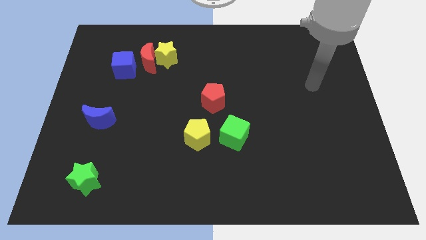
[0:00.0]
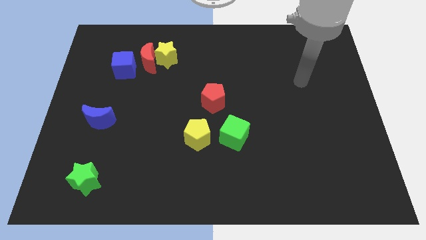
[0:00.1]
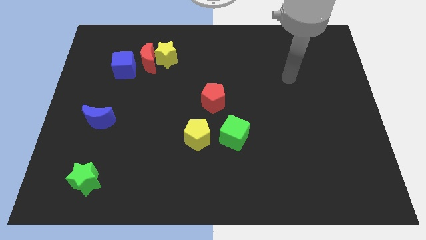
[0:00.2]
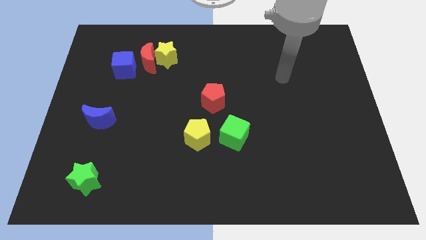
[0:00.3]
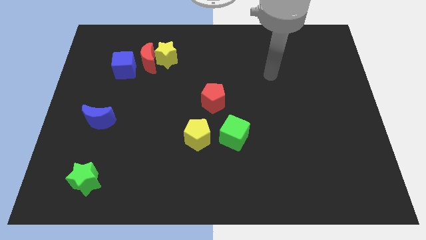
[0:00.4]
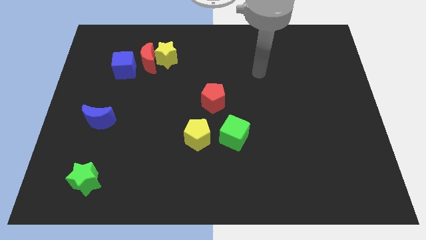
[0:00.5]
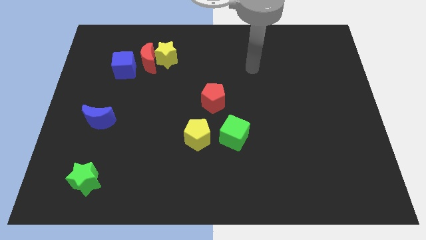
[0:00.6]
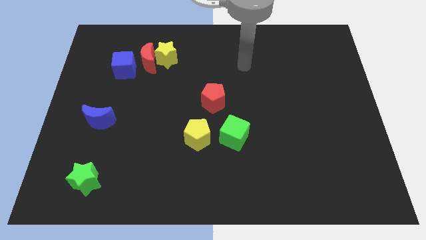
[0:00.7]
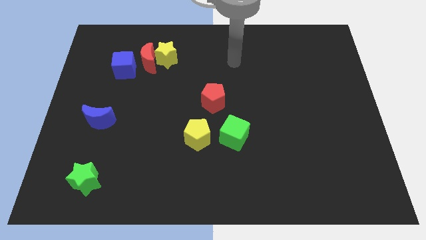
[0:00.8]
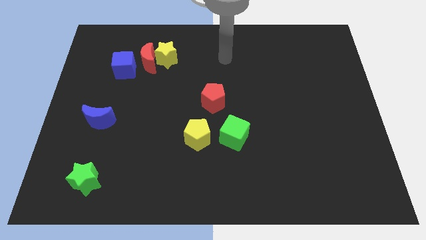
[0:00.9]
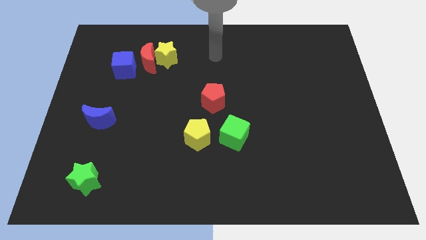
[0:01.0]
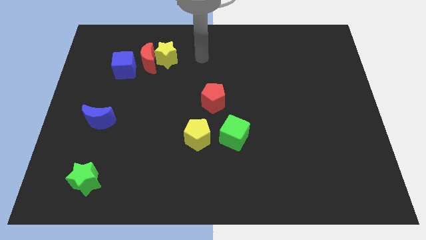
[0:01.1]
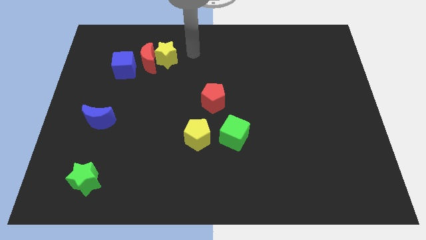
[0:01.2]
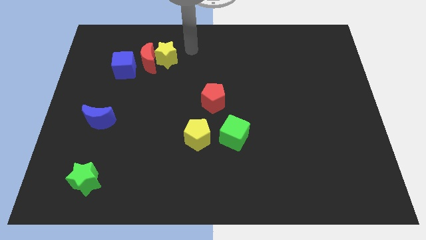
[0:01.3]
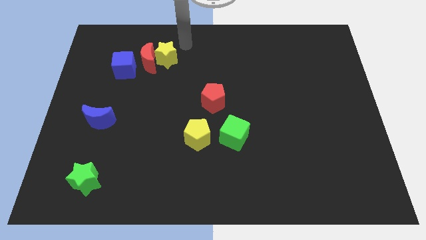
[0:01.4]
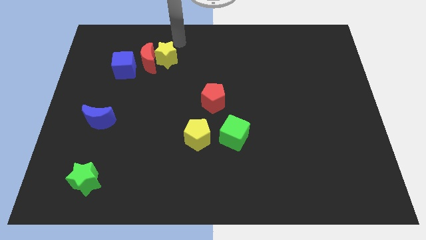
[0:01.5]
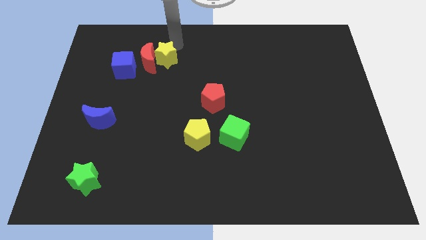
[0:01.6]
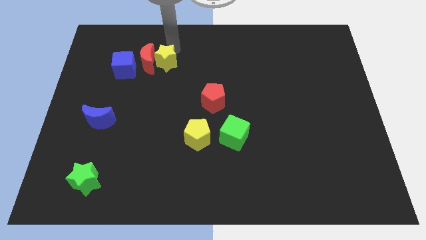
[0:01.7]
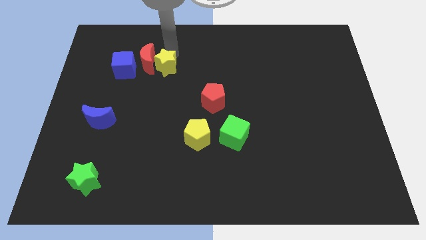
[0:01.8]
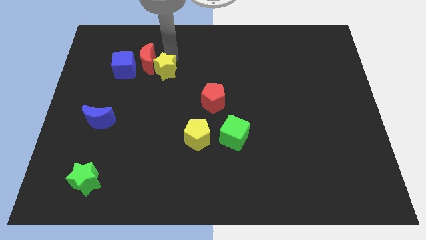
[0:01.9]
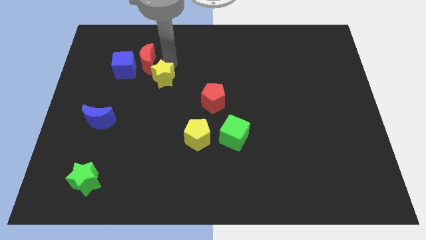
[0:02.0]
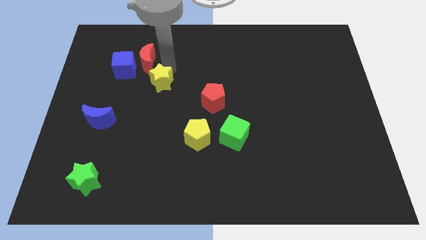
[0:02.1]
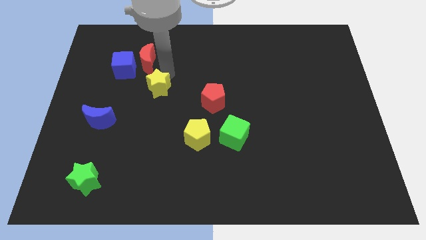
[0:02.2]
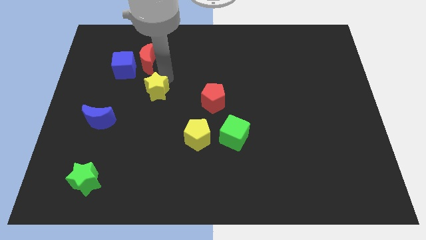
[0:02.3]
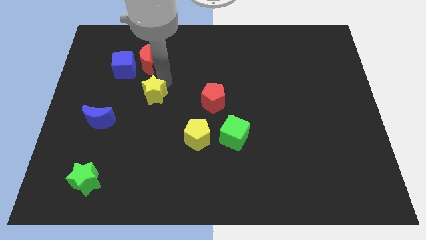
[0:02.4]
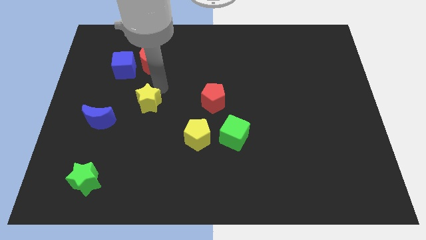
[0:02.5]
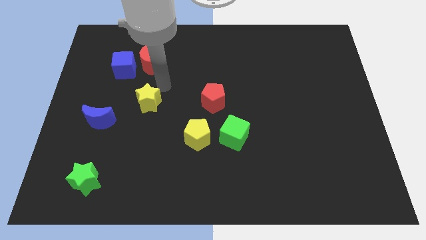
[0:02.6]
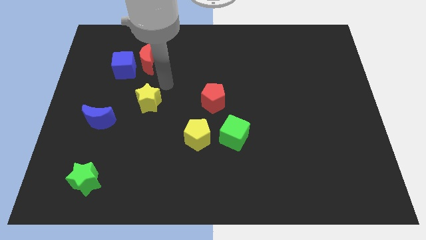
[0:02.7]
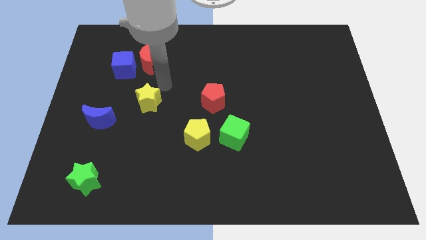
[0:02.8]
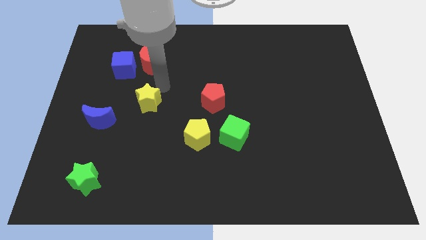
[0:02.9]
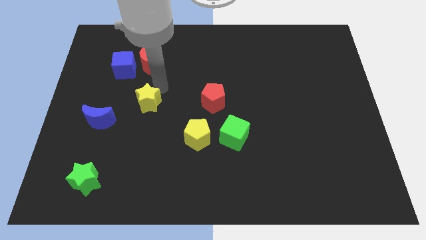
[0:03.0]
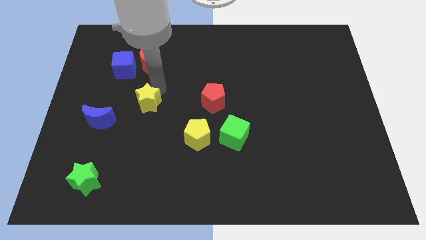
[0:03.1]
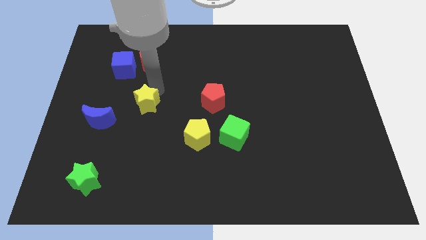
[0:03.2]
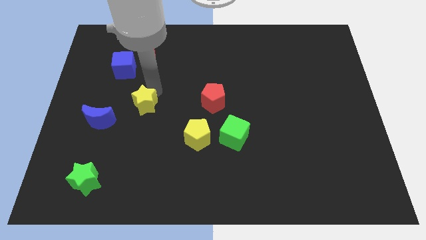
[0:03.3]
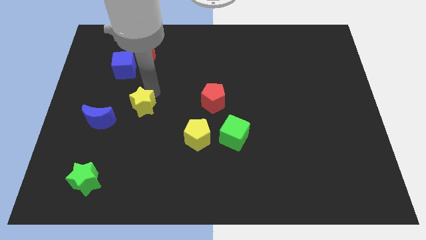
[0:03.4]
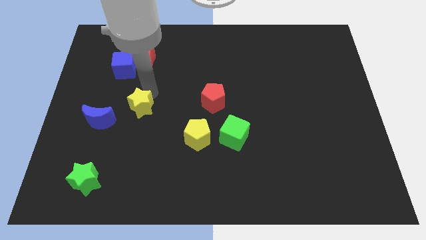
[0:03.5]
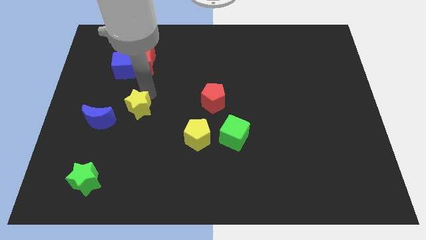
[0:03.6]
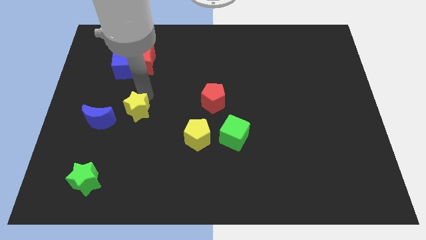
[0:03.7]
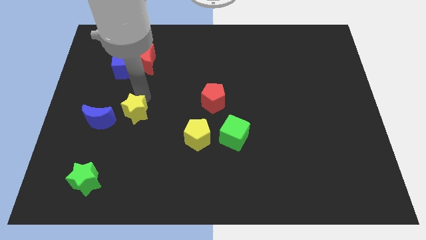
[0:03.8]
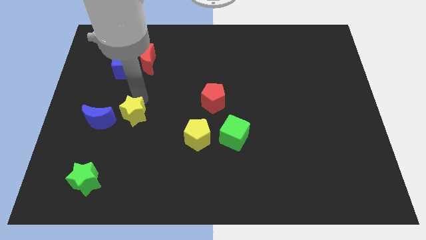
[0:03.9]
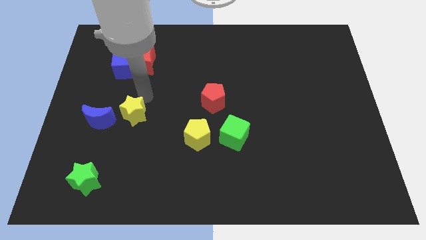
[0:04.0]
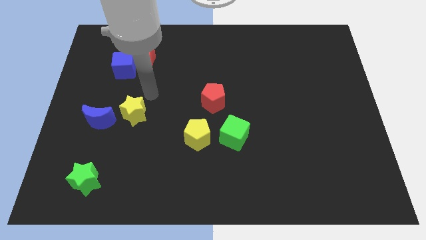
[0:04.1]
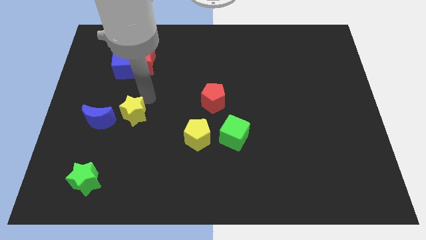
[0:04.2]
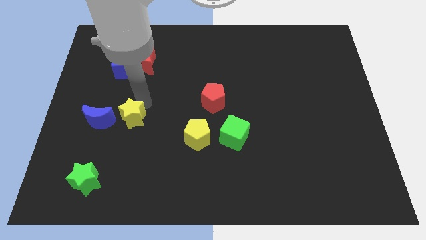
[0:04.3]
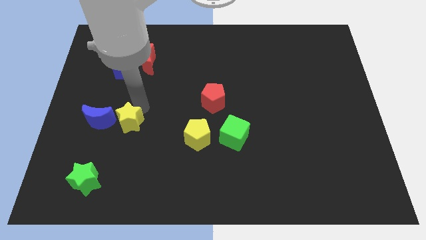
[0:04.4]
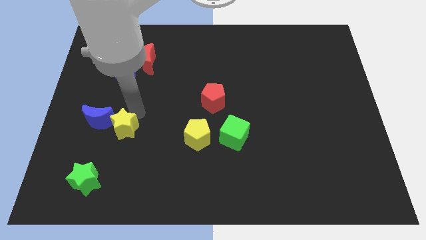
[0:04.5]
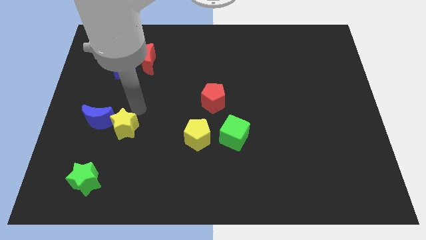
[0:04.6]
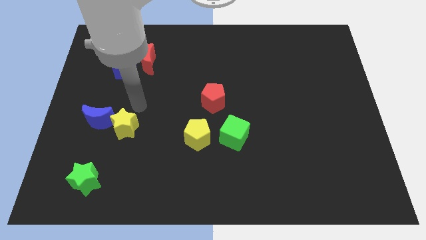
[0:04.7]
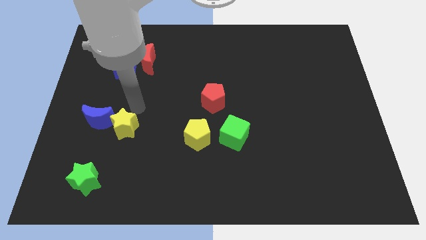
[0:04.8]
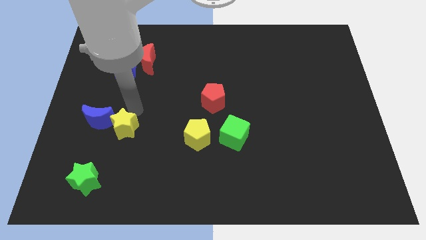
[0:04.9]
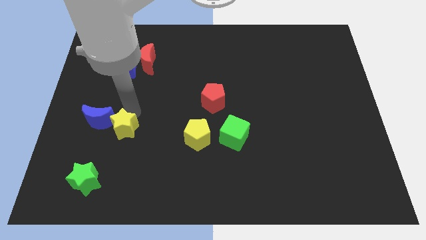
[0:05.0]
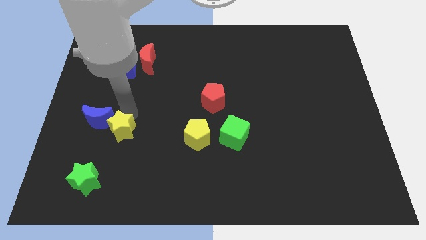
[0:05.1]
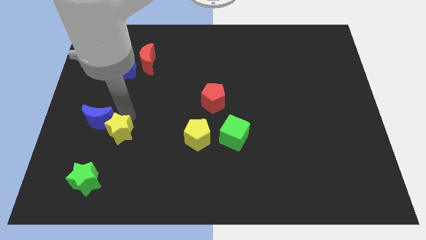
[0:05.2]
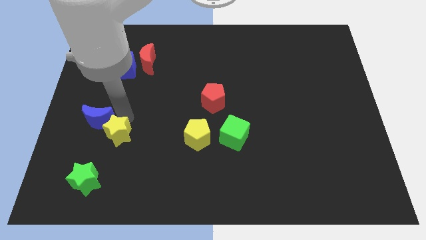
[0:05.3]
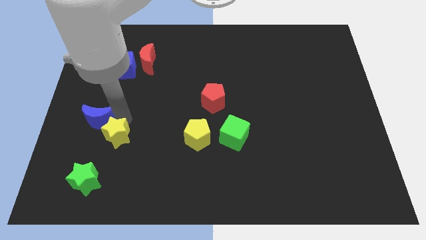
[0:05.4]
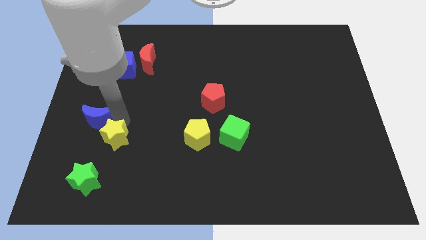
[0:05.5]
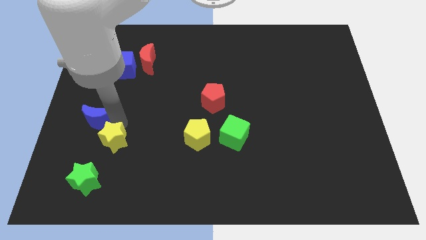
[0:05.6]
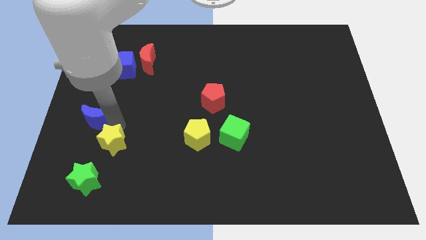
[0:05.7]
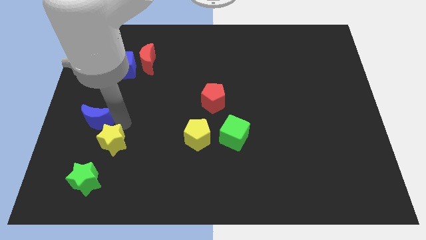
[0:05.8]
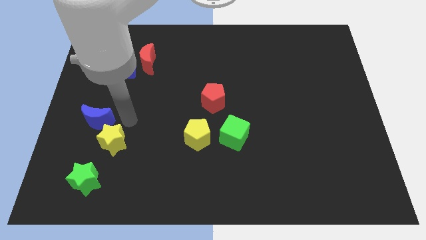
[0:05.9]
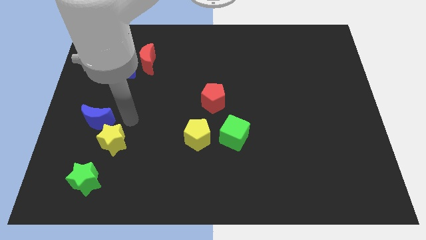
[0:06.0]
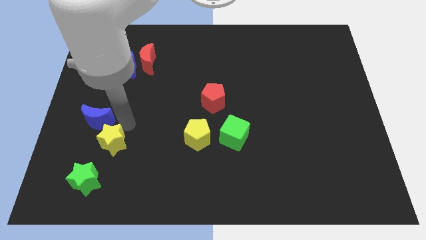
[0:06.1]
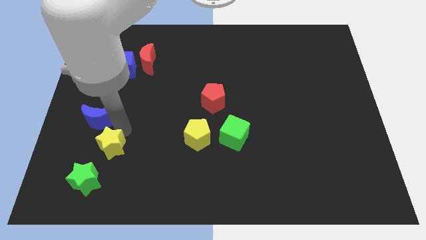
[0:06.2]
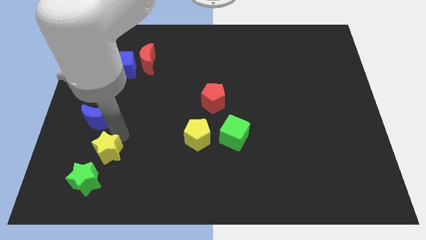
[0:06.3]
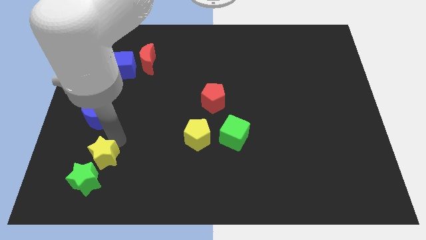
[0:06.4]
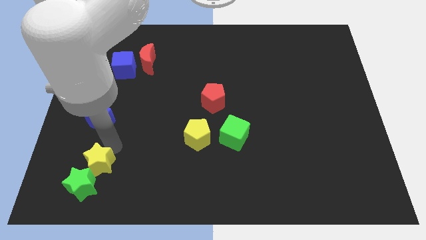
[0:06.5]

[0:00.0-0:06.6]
put the yellow star next to the green star
